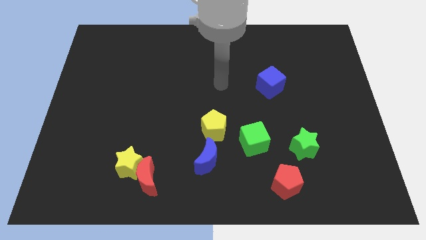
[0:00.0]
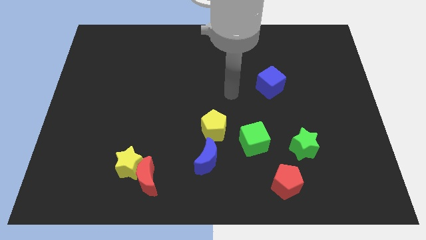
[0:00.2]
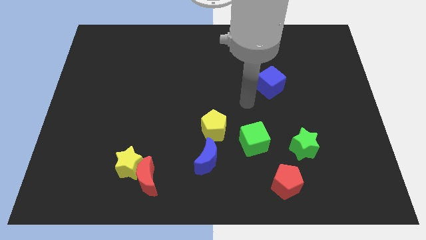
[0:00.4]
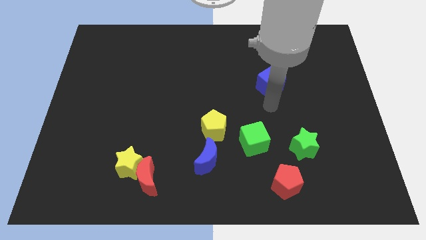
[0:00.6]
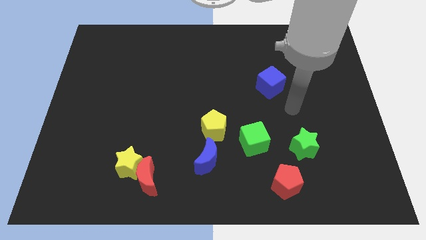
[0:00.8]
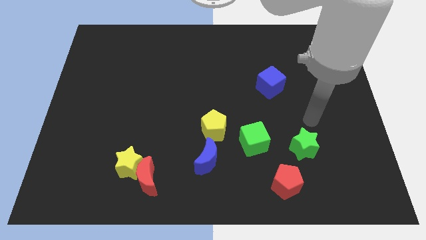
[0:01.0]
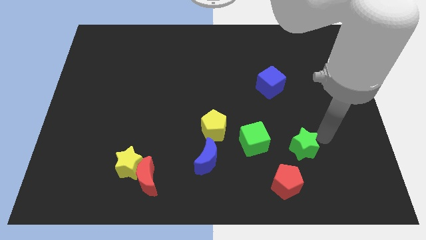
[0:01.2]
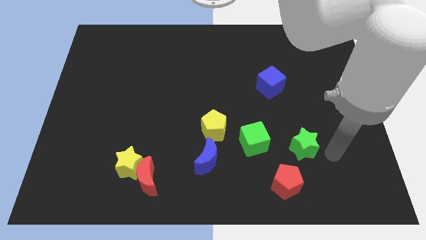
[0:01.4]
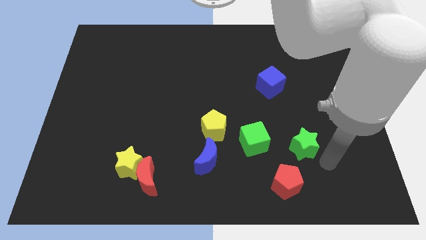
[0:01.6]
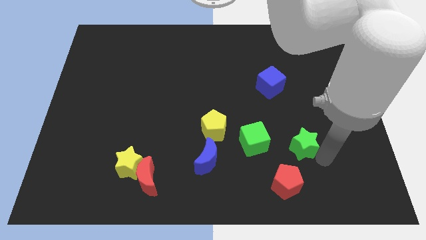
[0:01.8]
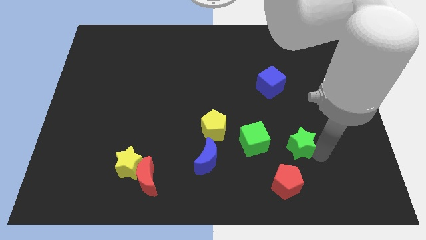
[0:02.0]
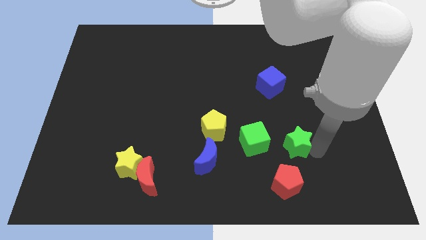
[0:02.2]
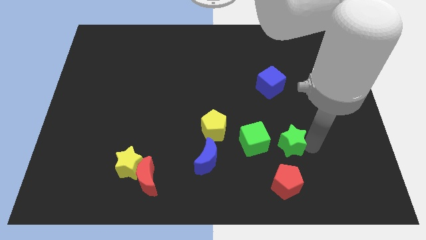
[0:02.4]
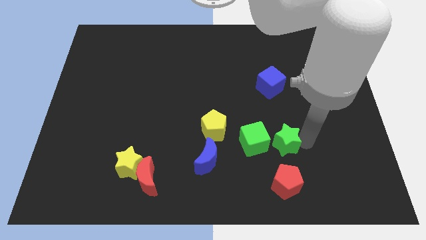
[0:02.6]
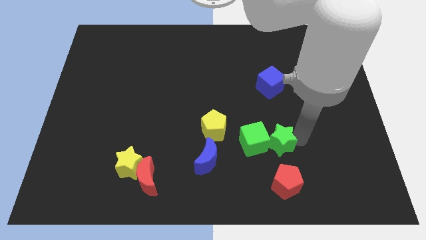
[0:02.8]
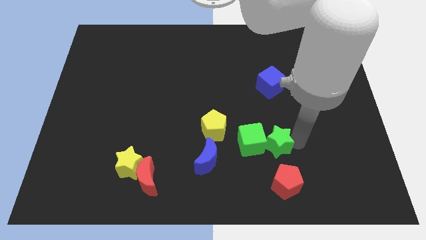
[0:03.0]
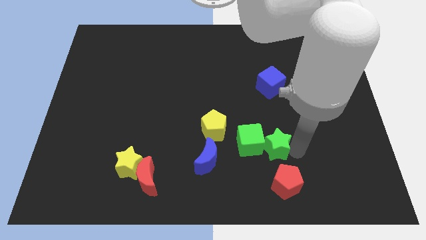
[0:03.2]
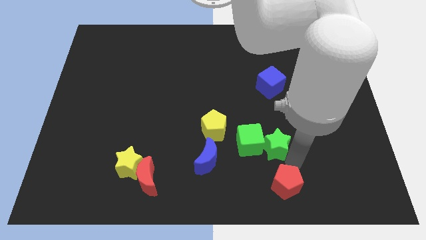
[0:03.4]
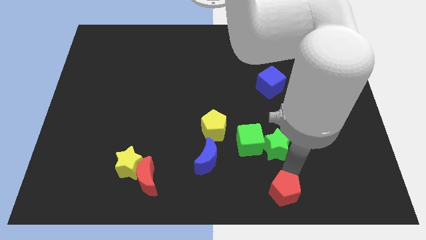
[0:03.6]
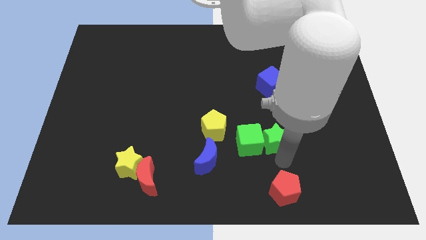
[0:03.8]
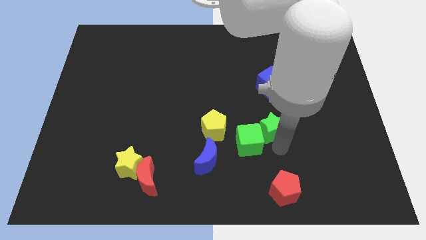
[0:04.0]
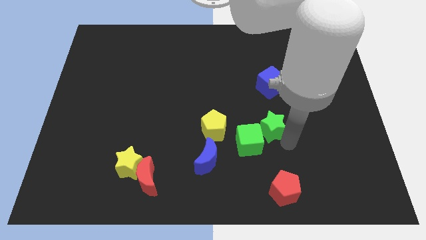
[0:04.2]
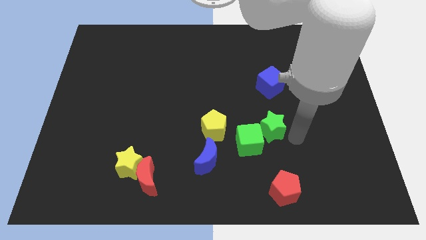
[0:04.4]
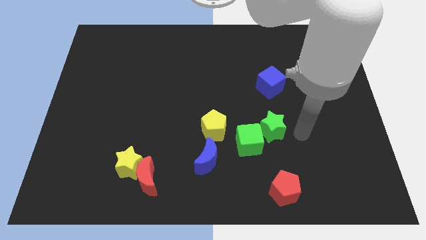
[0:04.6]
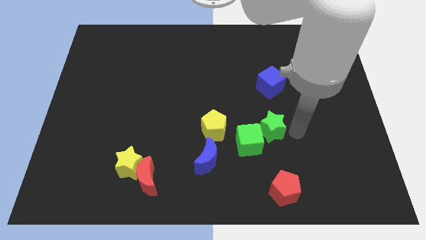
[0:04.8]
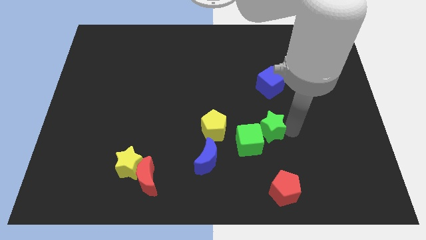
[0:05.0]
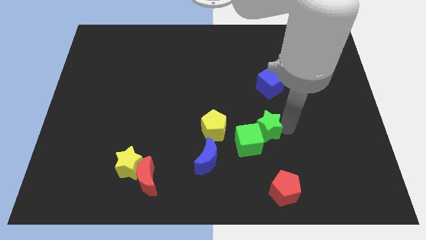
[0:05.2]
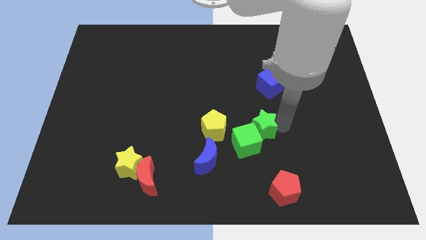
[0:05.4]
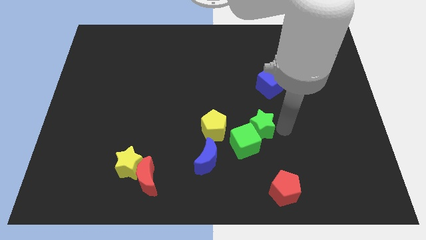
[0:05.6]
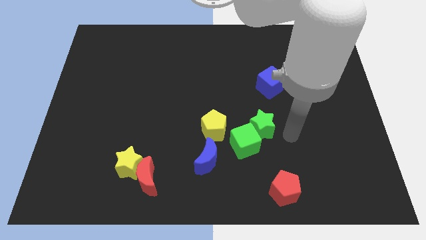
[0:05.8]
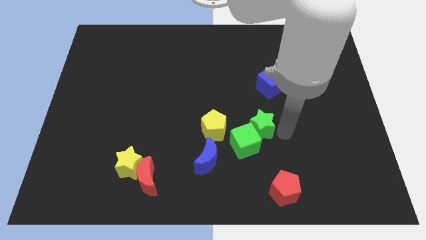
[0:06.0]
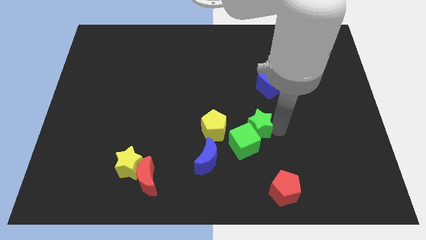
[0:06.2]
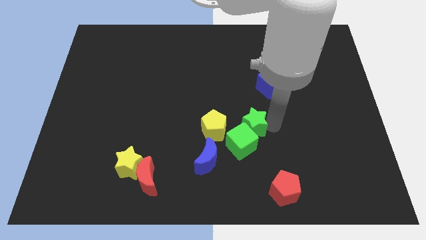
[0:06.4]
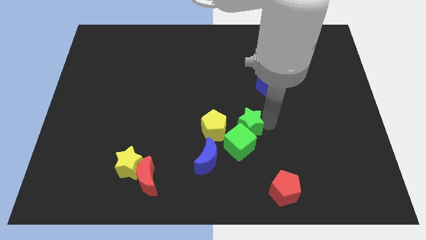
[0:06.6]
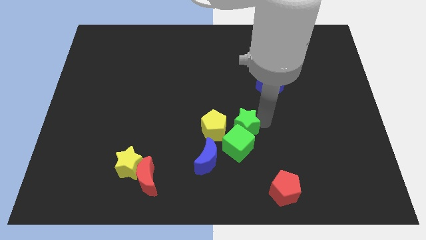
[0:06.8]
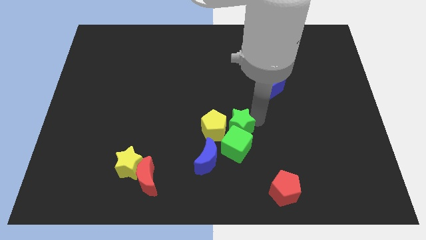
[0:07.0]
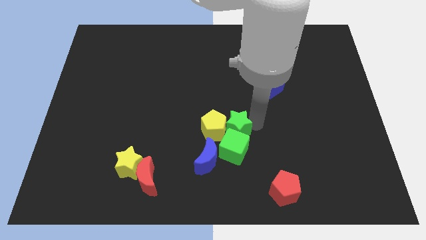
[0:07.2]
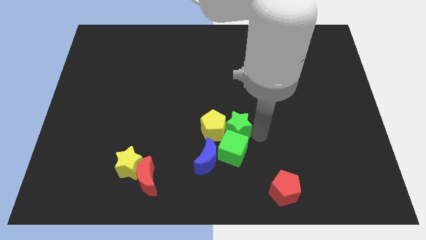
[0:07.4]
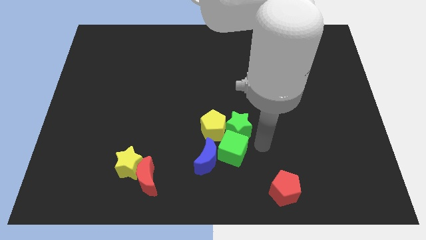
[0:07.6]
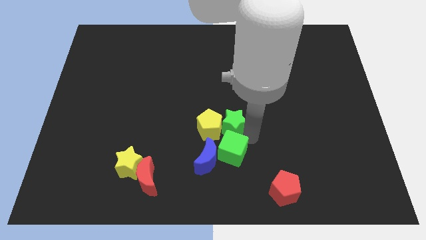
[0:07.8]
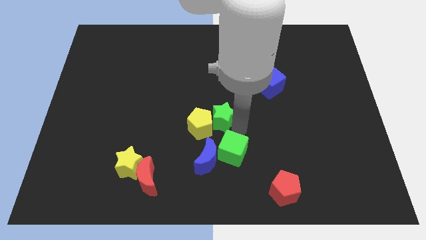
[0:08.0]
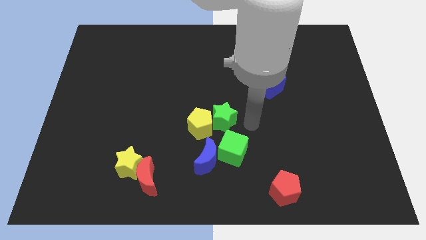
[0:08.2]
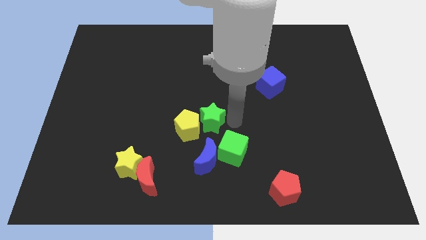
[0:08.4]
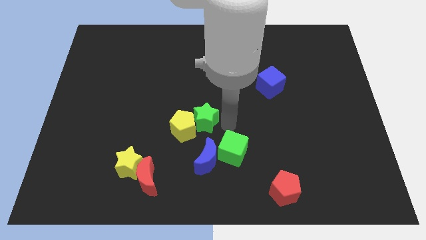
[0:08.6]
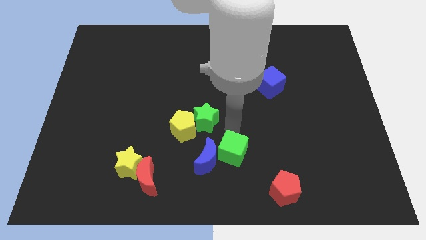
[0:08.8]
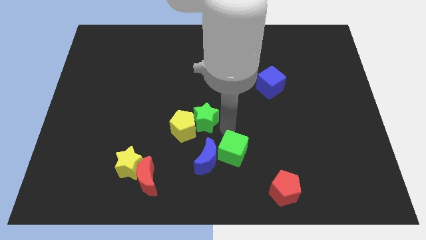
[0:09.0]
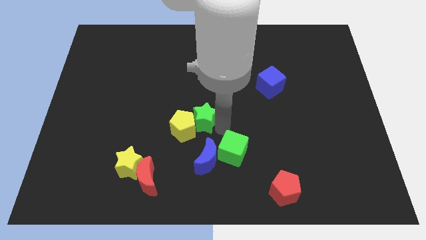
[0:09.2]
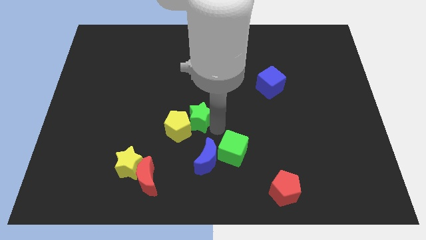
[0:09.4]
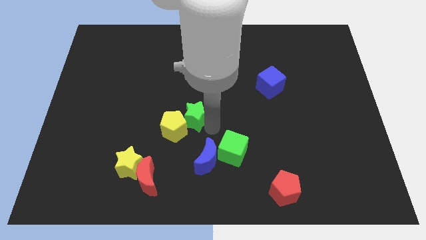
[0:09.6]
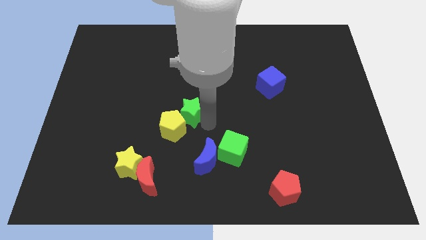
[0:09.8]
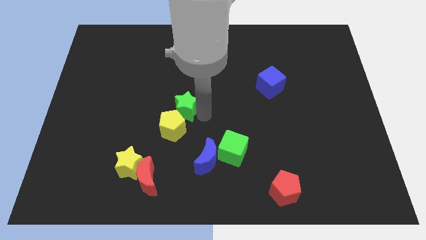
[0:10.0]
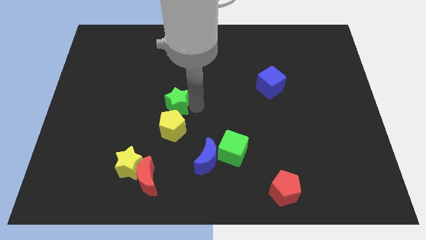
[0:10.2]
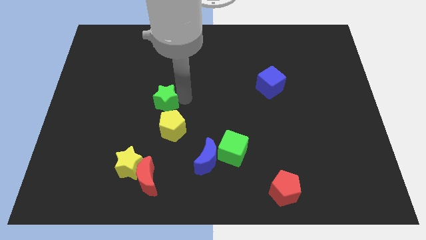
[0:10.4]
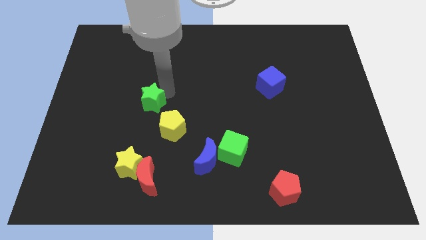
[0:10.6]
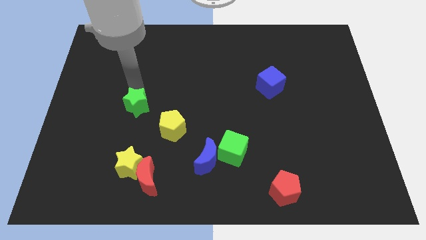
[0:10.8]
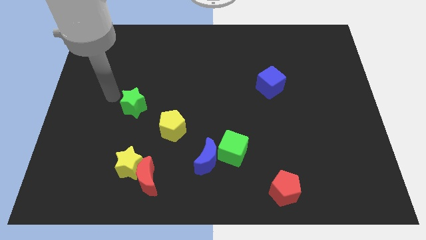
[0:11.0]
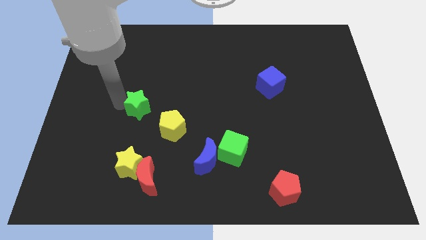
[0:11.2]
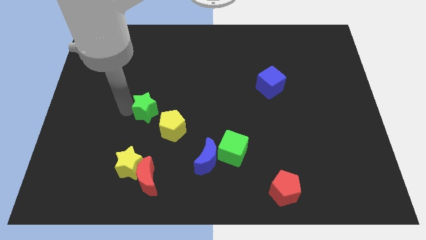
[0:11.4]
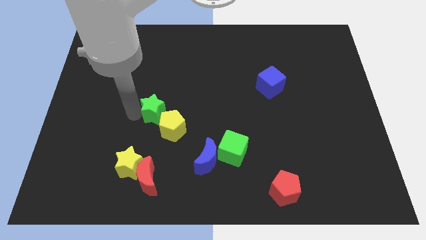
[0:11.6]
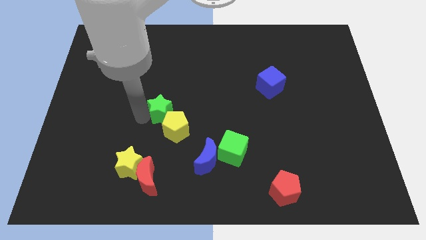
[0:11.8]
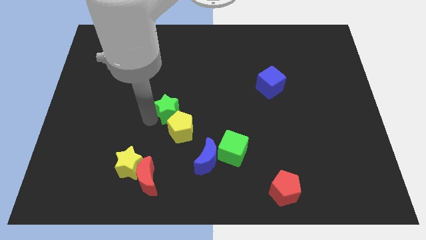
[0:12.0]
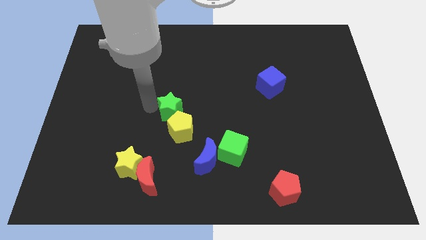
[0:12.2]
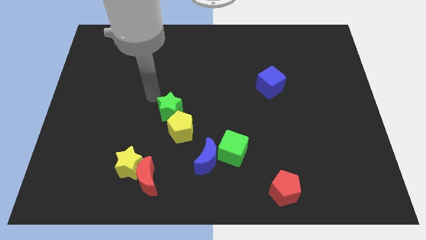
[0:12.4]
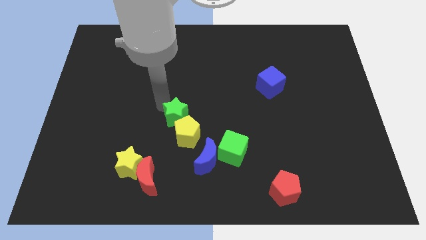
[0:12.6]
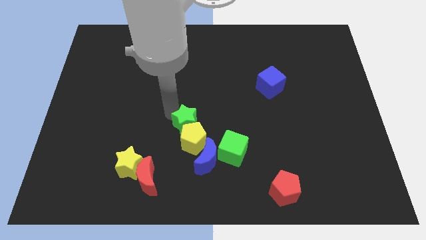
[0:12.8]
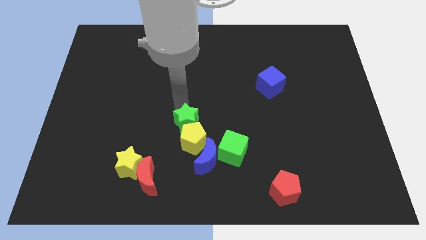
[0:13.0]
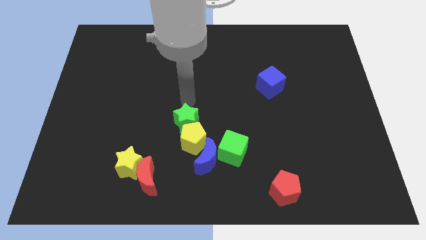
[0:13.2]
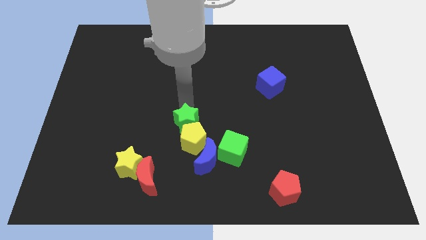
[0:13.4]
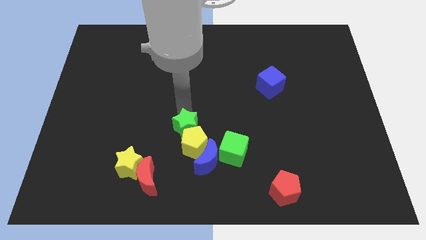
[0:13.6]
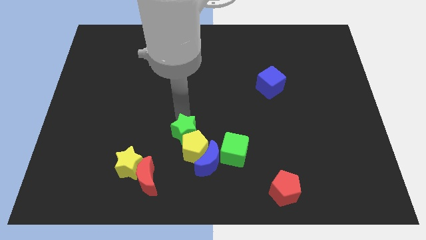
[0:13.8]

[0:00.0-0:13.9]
put the green star to the left of the green cube
